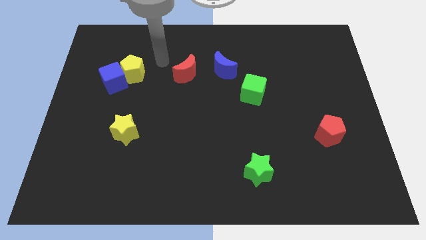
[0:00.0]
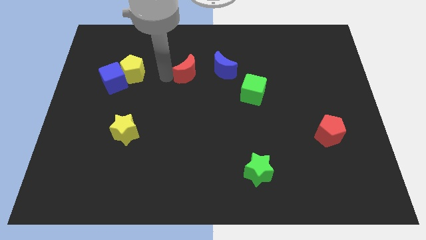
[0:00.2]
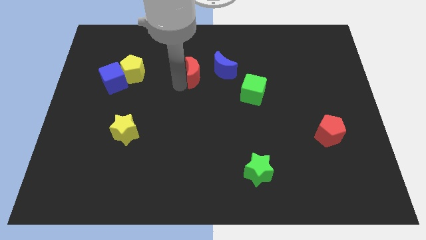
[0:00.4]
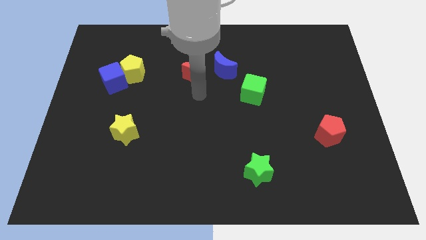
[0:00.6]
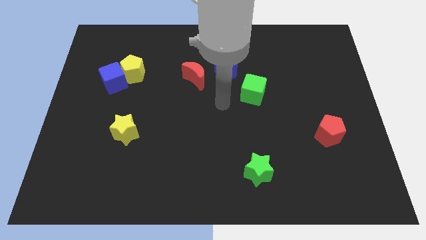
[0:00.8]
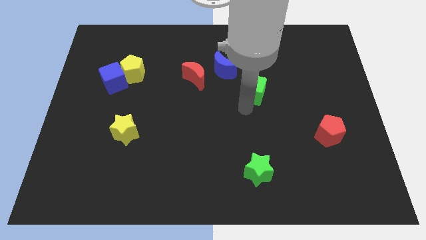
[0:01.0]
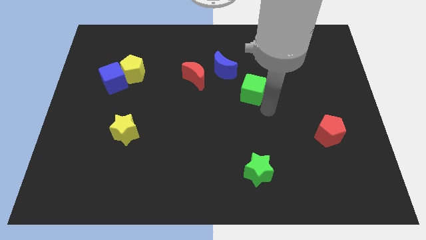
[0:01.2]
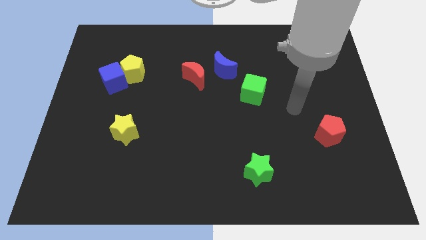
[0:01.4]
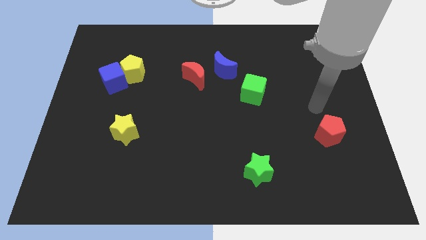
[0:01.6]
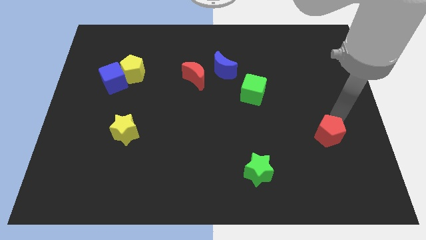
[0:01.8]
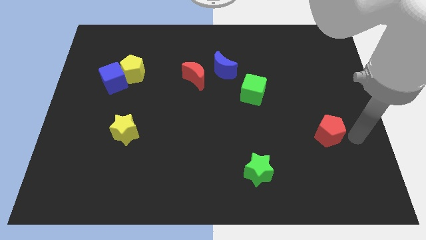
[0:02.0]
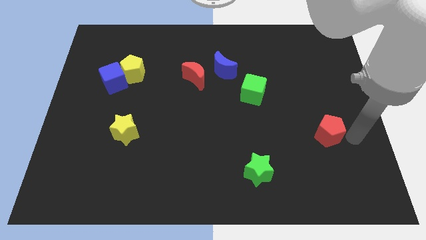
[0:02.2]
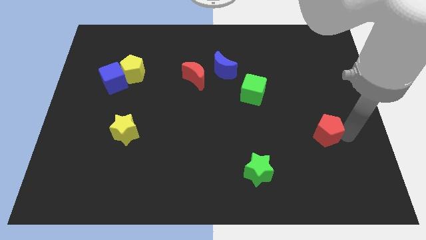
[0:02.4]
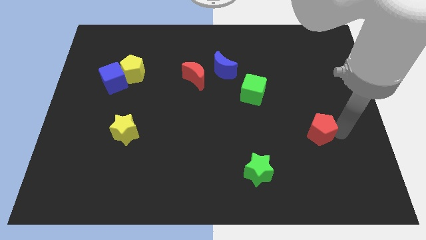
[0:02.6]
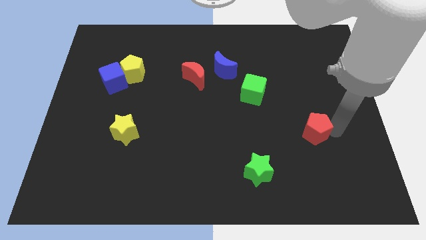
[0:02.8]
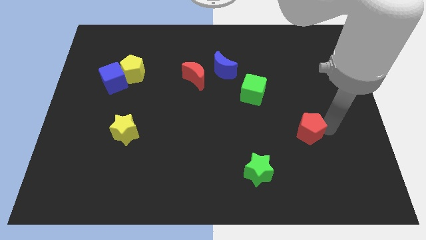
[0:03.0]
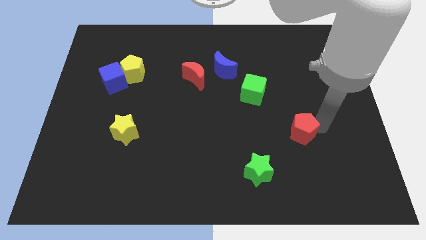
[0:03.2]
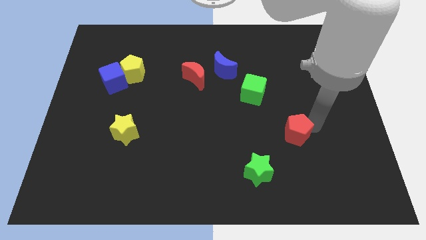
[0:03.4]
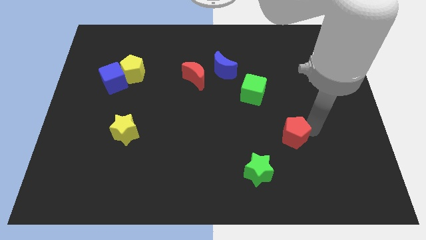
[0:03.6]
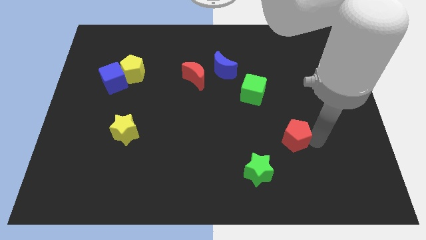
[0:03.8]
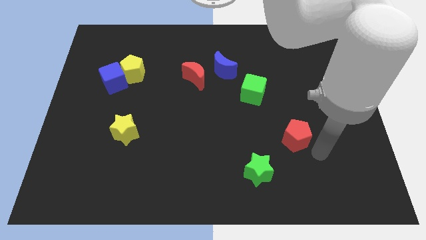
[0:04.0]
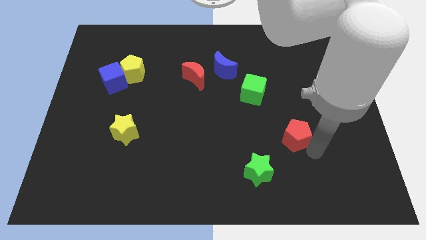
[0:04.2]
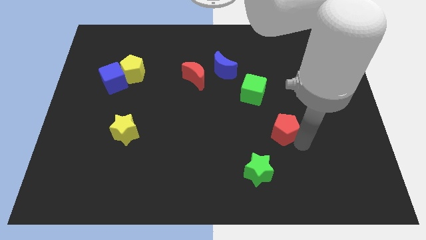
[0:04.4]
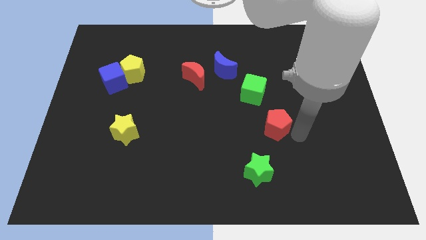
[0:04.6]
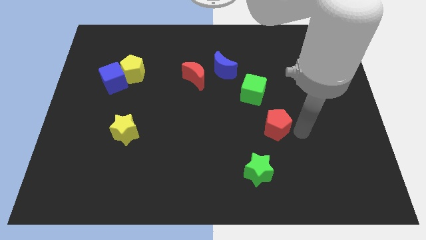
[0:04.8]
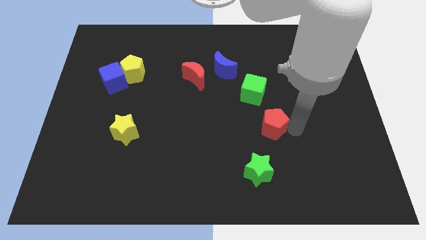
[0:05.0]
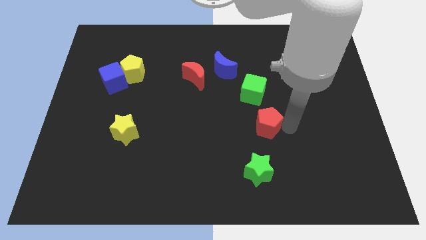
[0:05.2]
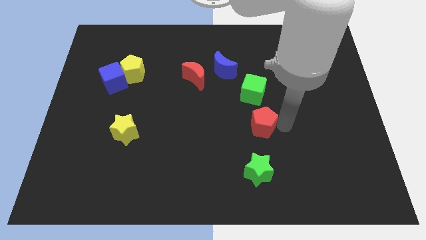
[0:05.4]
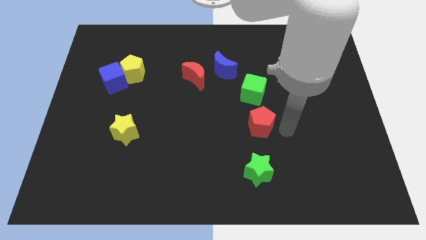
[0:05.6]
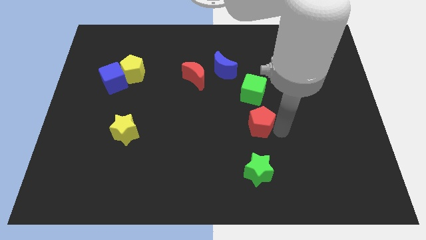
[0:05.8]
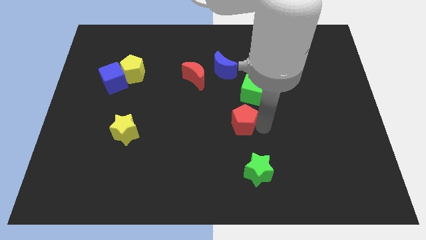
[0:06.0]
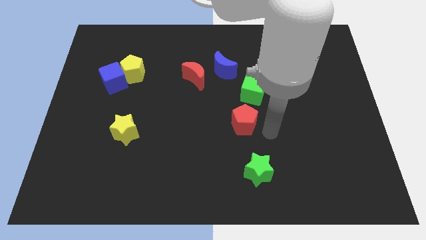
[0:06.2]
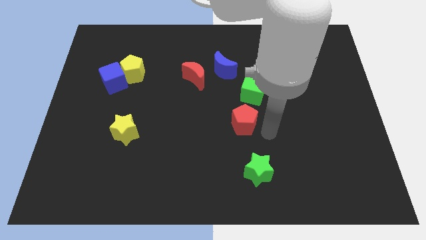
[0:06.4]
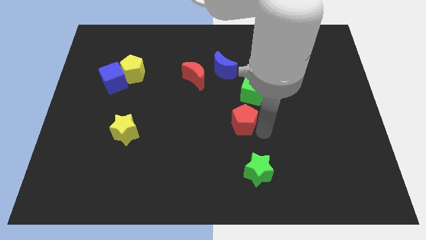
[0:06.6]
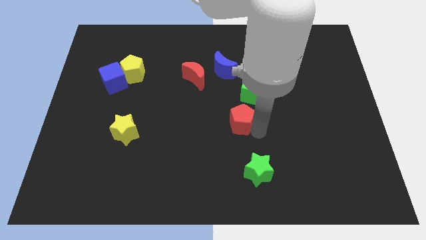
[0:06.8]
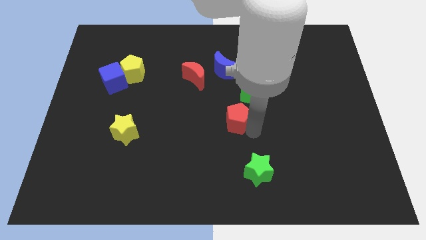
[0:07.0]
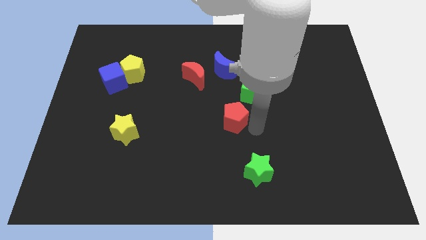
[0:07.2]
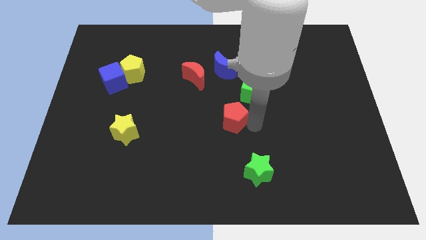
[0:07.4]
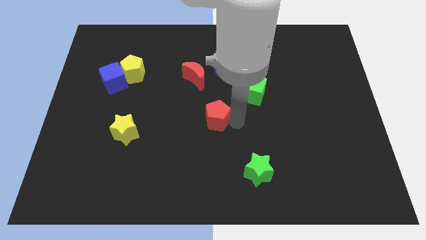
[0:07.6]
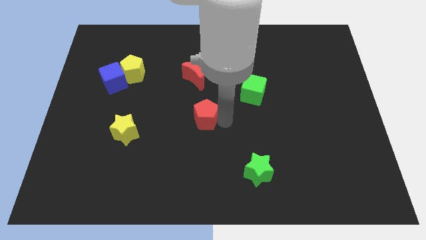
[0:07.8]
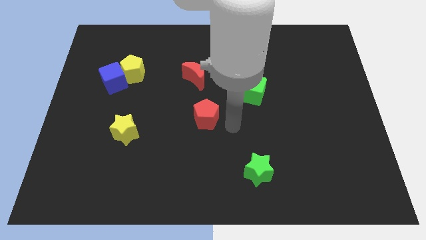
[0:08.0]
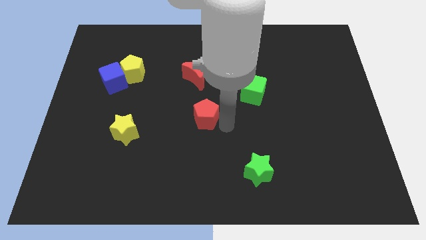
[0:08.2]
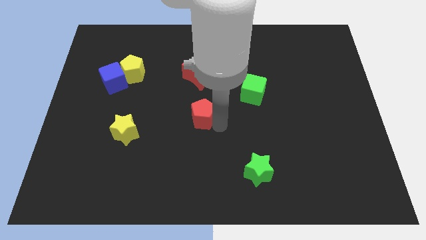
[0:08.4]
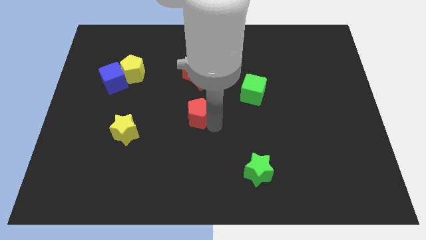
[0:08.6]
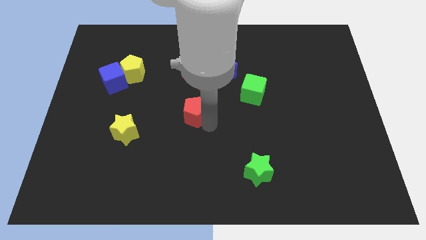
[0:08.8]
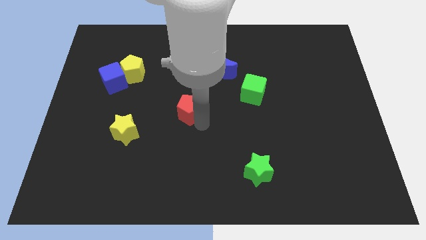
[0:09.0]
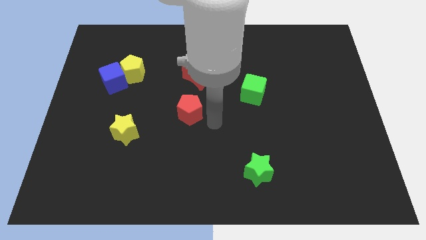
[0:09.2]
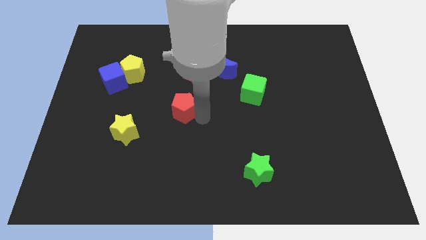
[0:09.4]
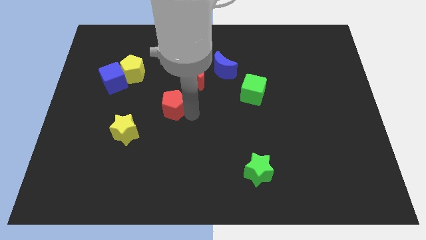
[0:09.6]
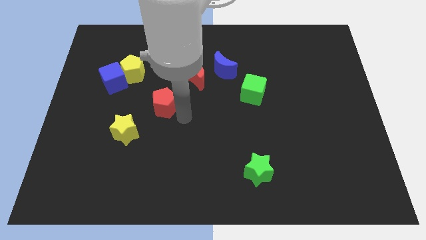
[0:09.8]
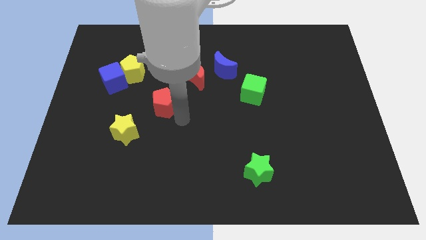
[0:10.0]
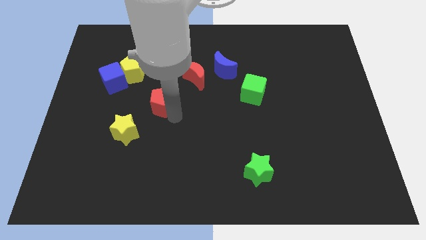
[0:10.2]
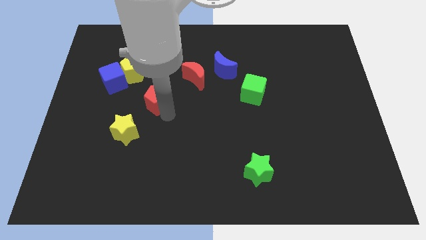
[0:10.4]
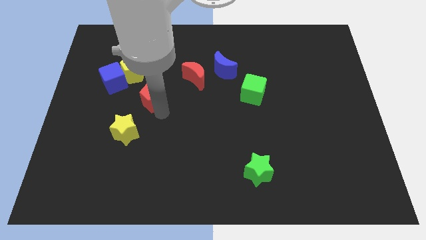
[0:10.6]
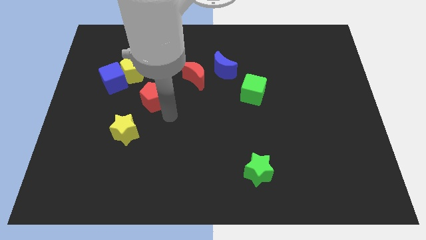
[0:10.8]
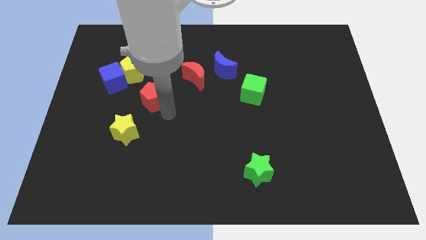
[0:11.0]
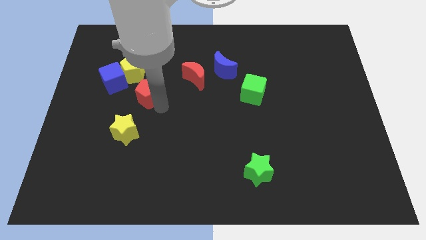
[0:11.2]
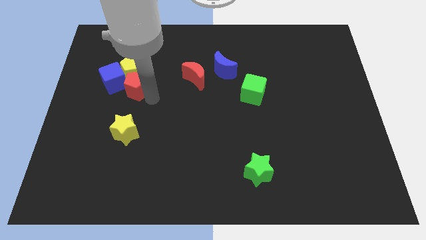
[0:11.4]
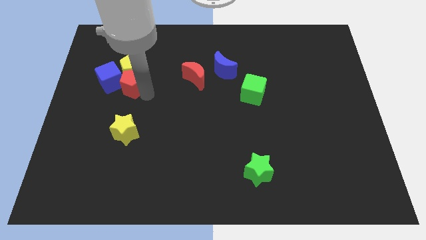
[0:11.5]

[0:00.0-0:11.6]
push the red pentagon close to the blue cube

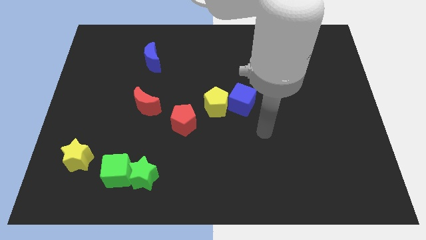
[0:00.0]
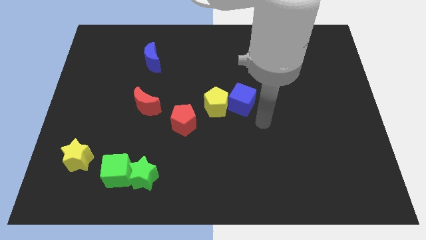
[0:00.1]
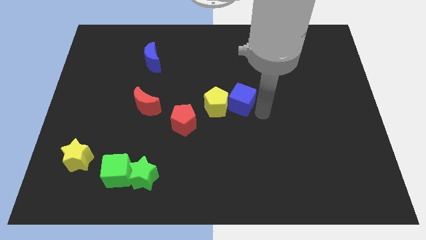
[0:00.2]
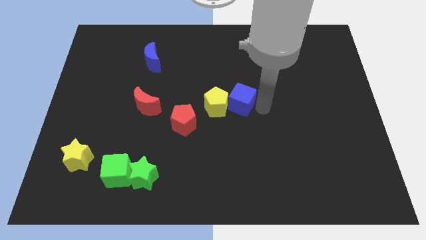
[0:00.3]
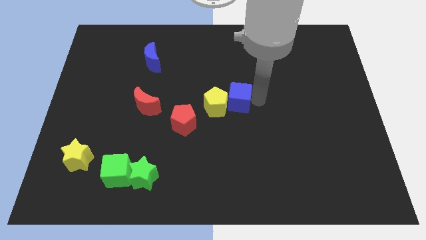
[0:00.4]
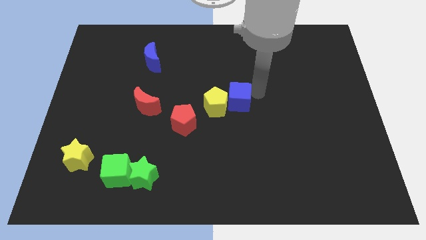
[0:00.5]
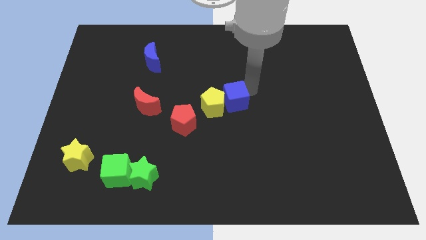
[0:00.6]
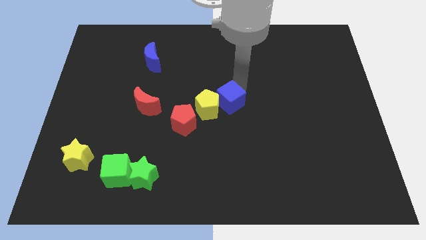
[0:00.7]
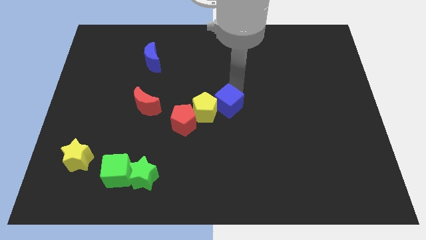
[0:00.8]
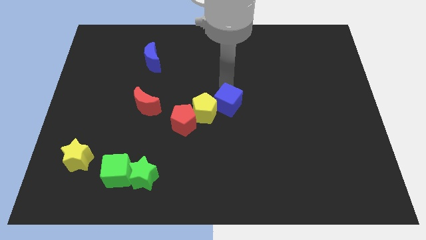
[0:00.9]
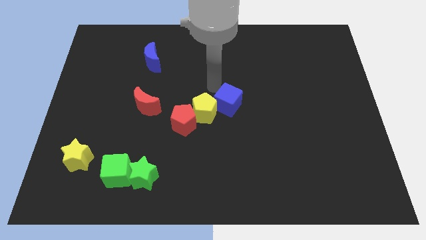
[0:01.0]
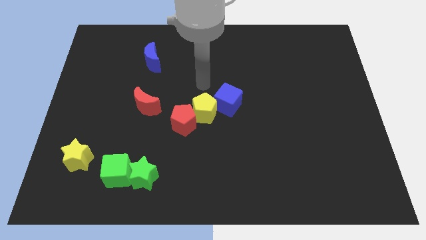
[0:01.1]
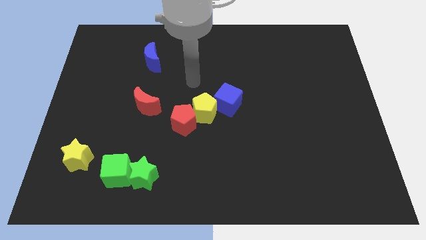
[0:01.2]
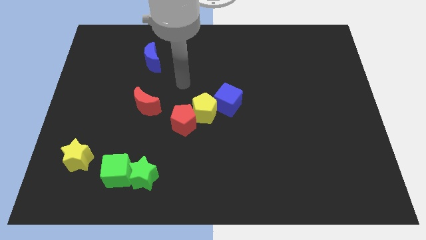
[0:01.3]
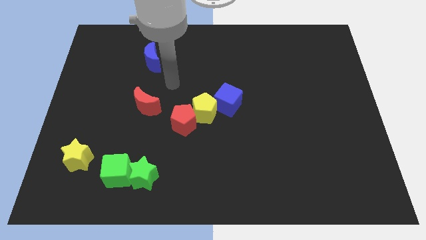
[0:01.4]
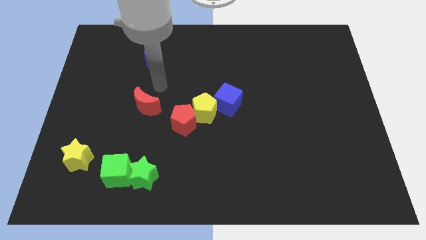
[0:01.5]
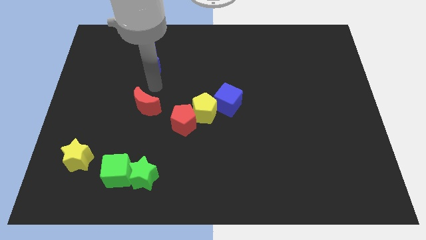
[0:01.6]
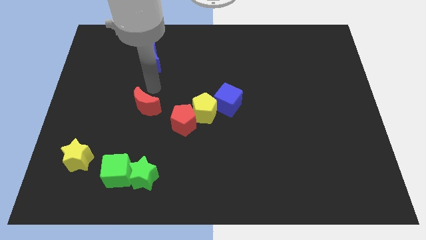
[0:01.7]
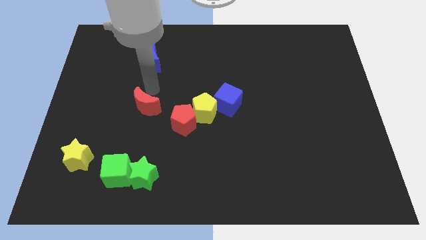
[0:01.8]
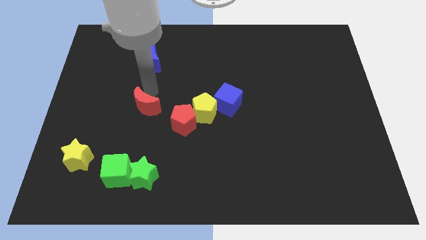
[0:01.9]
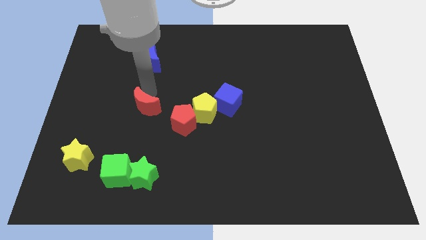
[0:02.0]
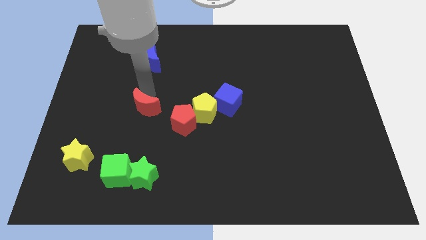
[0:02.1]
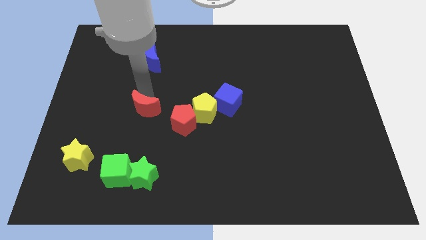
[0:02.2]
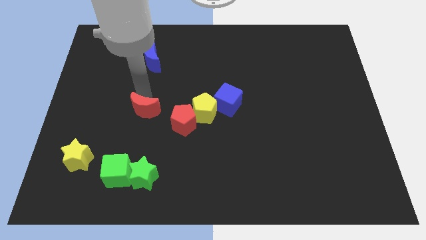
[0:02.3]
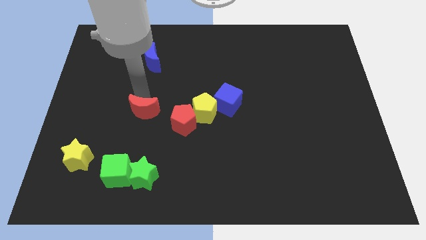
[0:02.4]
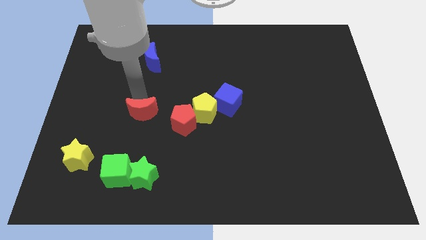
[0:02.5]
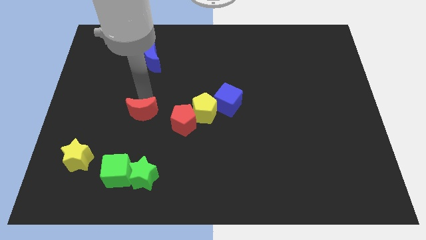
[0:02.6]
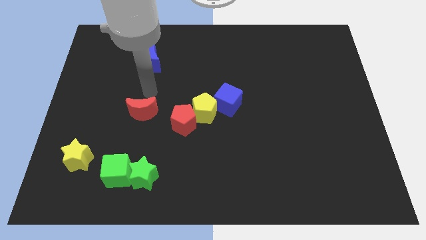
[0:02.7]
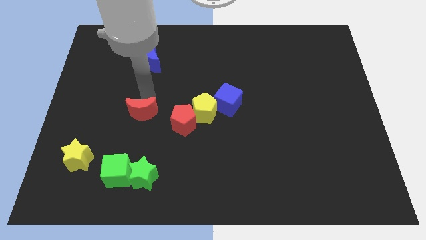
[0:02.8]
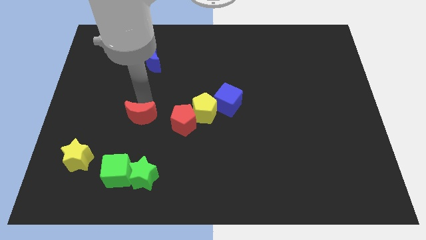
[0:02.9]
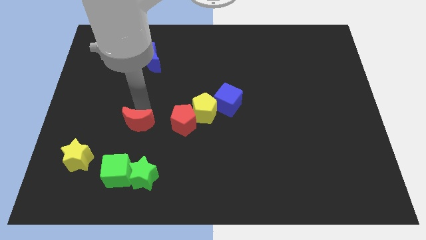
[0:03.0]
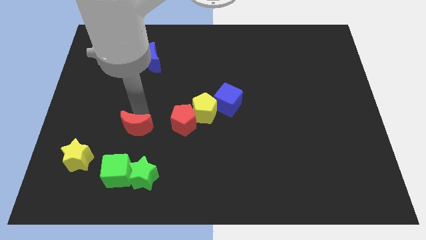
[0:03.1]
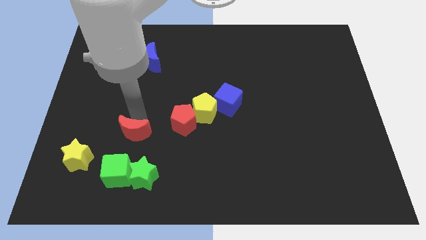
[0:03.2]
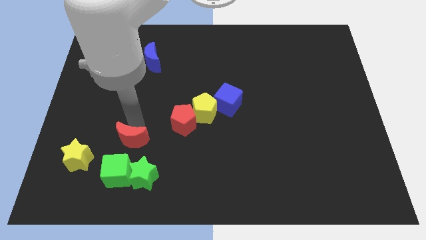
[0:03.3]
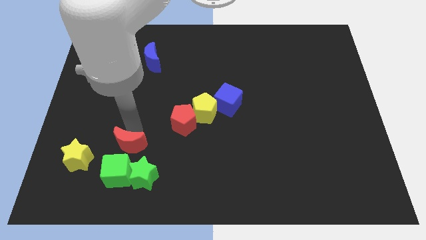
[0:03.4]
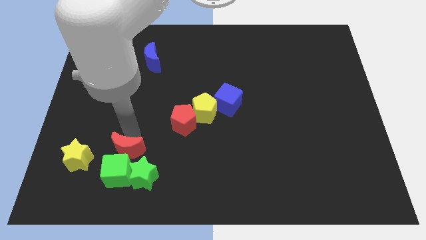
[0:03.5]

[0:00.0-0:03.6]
move the red moon next to the green cube
